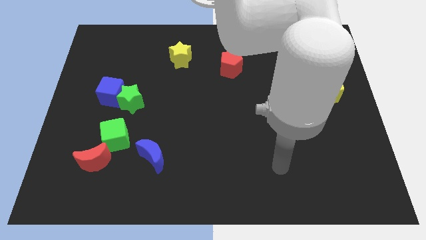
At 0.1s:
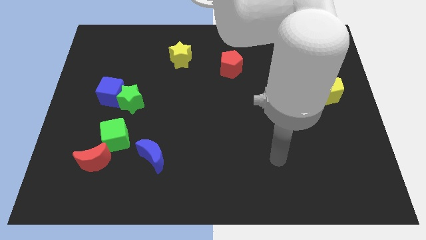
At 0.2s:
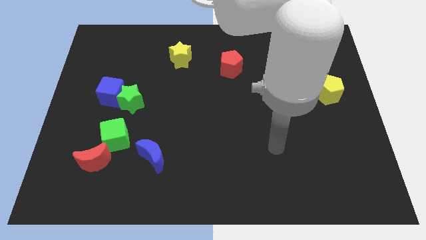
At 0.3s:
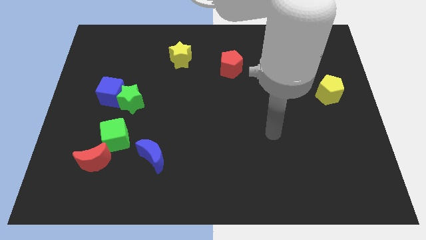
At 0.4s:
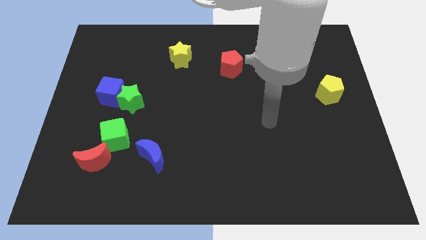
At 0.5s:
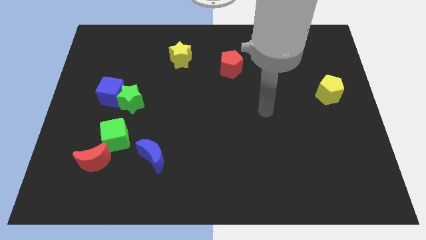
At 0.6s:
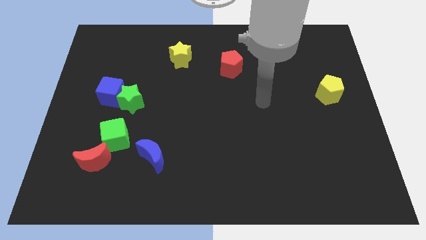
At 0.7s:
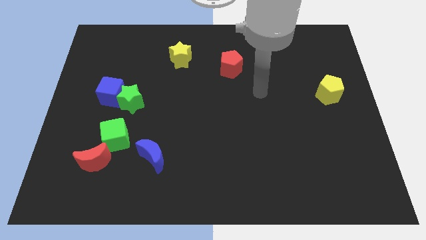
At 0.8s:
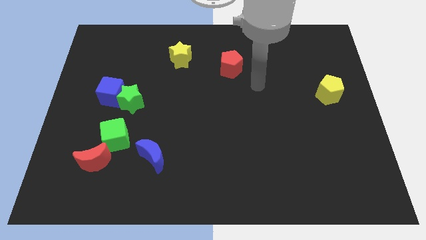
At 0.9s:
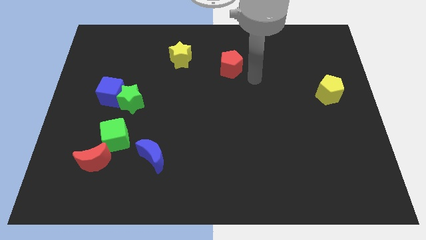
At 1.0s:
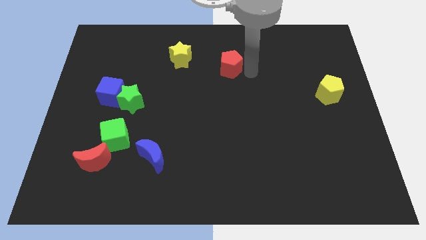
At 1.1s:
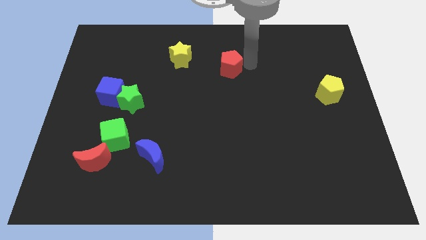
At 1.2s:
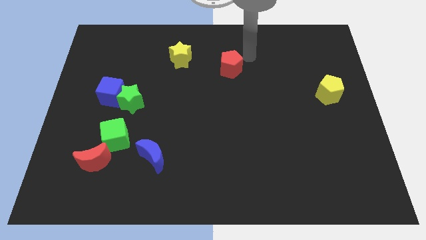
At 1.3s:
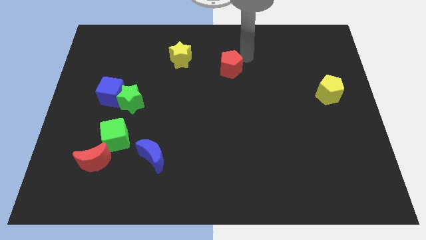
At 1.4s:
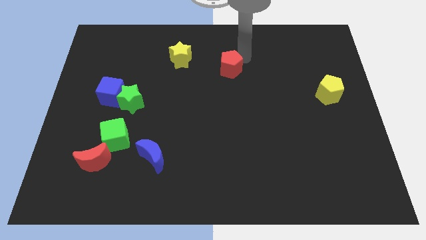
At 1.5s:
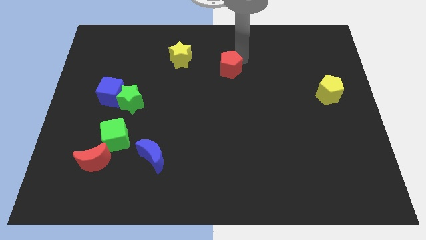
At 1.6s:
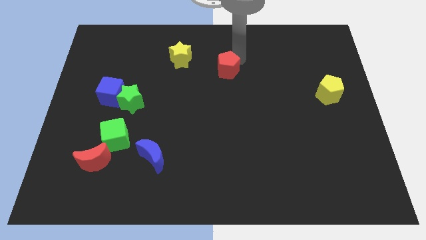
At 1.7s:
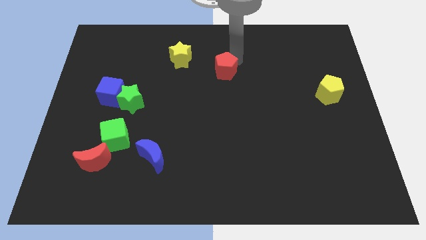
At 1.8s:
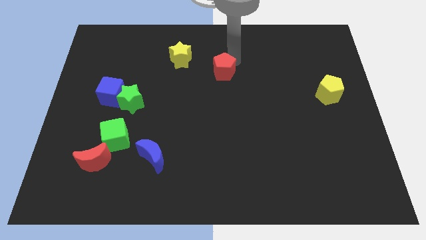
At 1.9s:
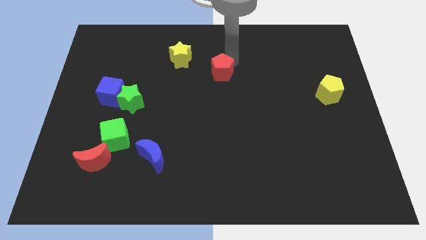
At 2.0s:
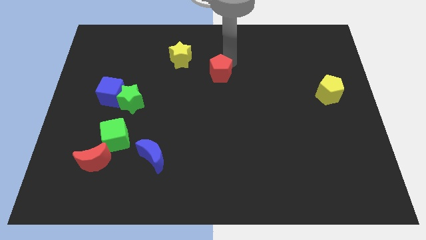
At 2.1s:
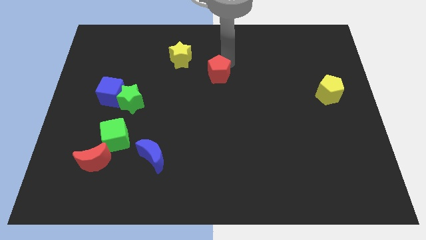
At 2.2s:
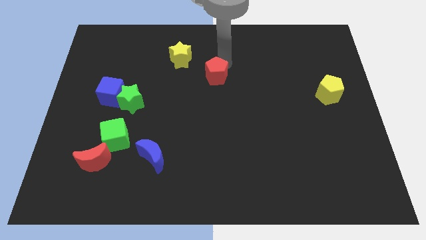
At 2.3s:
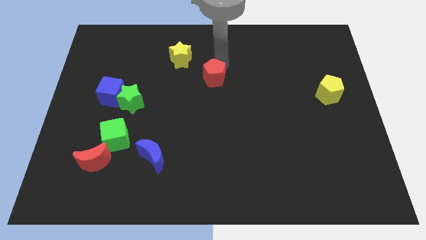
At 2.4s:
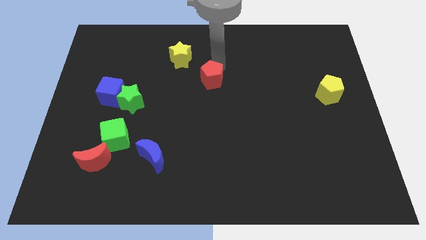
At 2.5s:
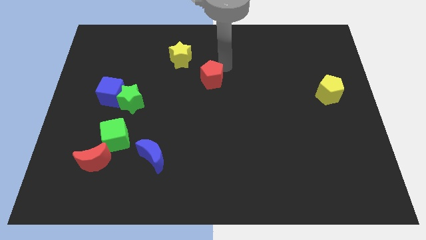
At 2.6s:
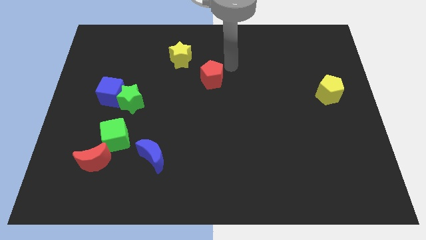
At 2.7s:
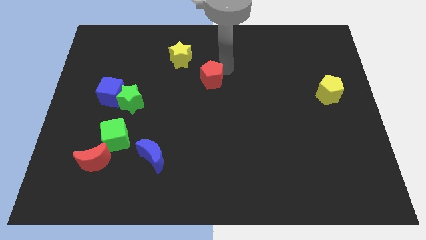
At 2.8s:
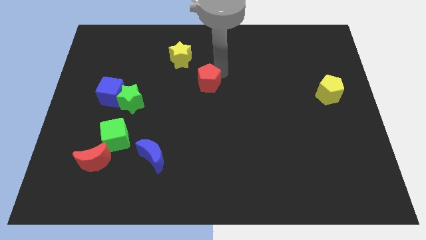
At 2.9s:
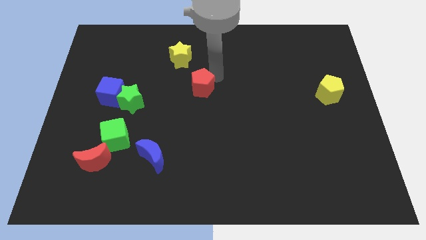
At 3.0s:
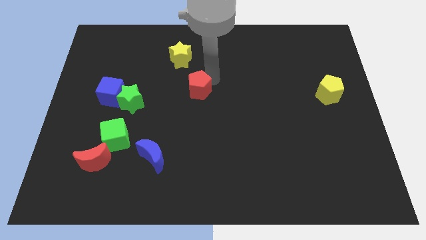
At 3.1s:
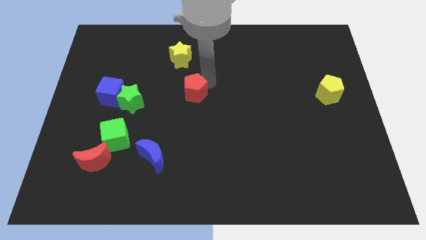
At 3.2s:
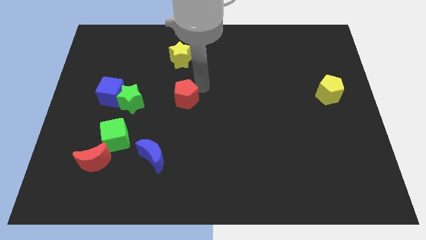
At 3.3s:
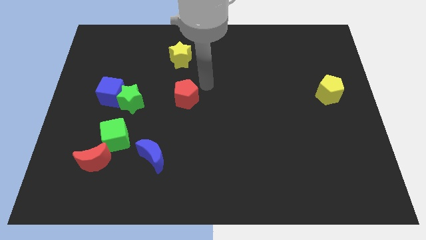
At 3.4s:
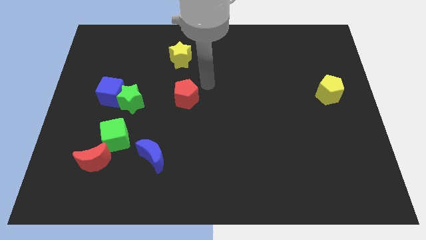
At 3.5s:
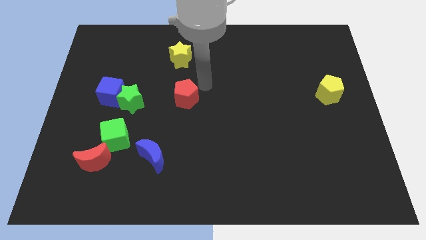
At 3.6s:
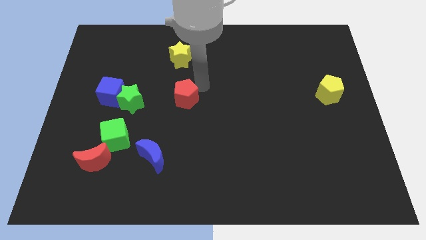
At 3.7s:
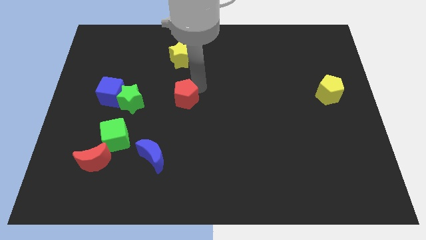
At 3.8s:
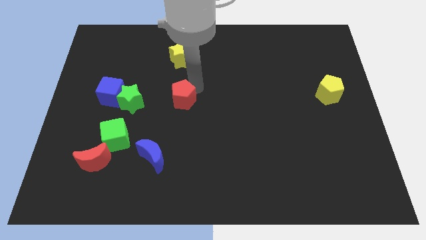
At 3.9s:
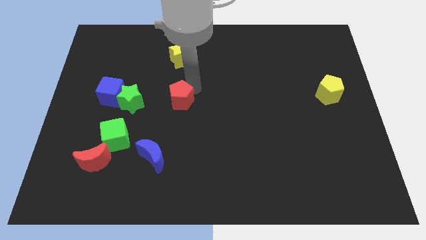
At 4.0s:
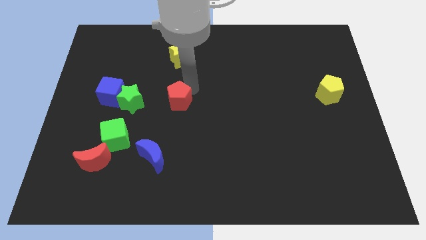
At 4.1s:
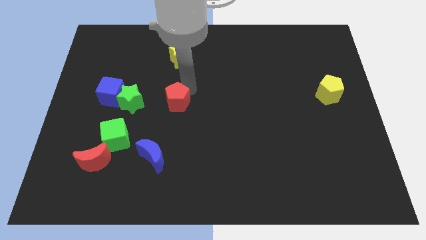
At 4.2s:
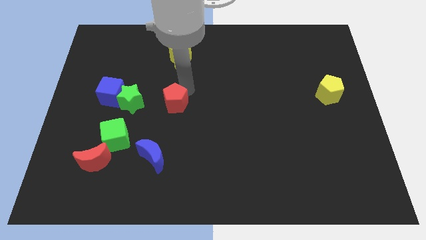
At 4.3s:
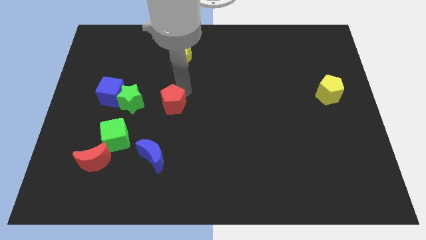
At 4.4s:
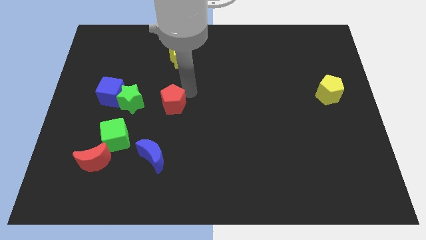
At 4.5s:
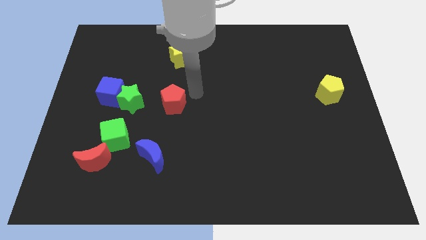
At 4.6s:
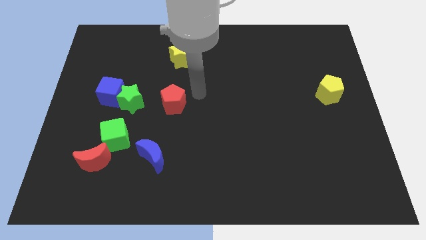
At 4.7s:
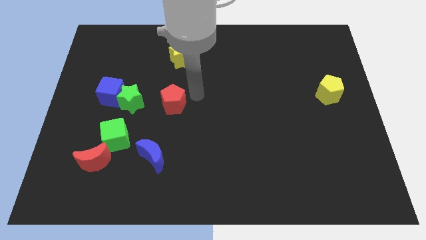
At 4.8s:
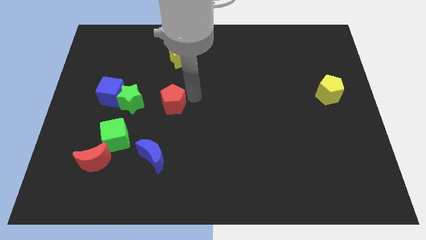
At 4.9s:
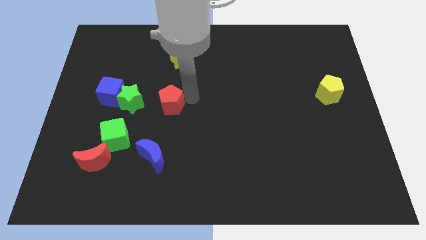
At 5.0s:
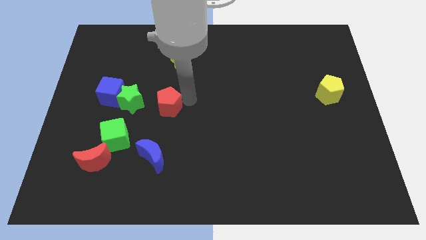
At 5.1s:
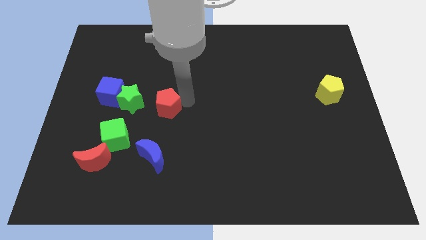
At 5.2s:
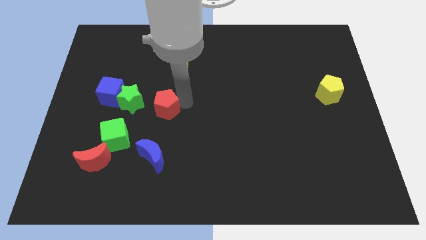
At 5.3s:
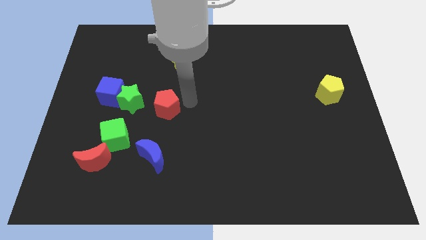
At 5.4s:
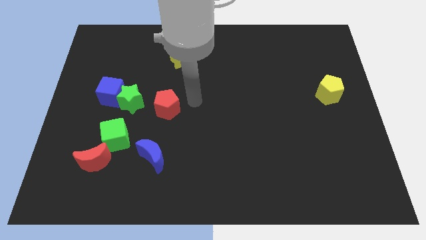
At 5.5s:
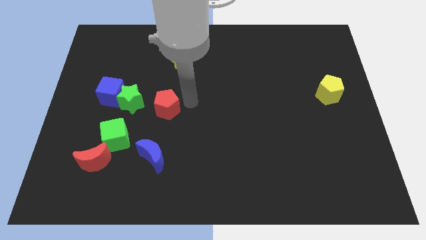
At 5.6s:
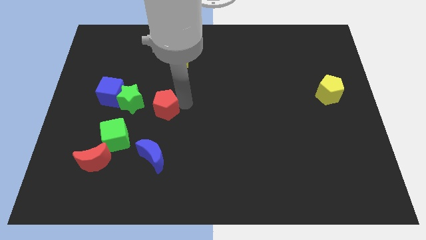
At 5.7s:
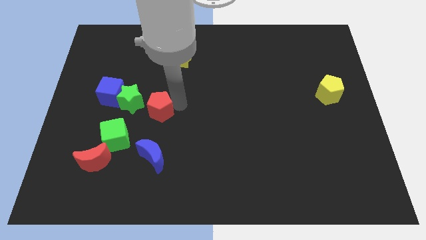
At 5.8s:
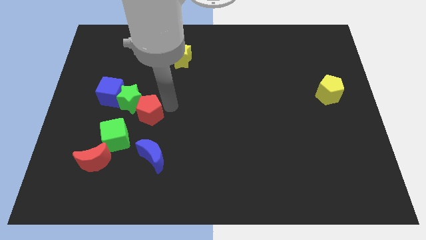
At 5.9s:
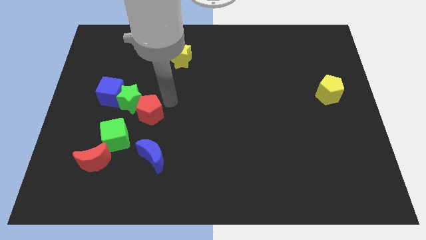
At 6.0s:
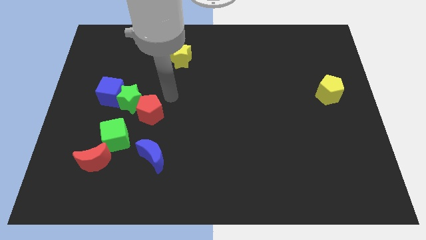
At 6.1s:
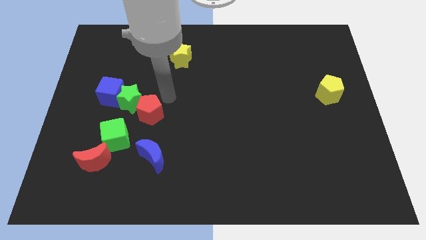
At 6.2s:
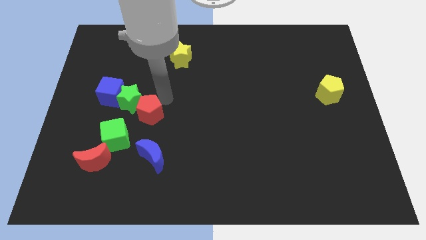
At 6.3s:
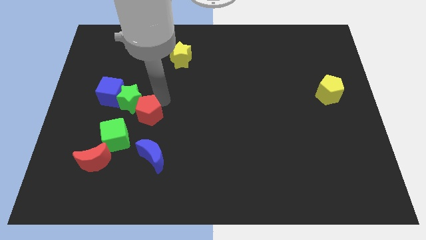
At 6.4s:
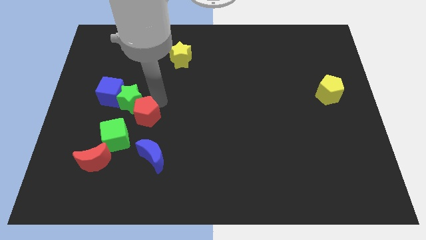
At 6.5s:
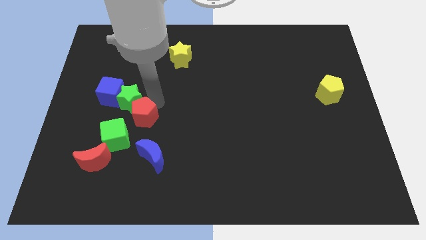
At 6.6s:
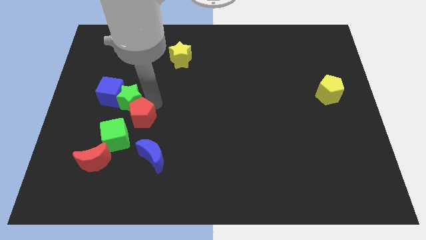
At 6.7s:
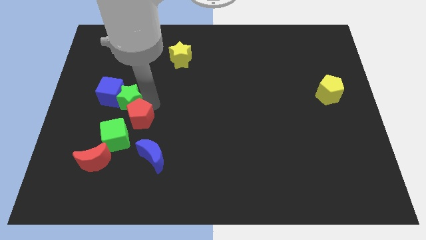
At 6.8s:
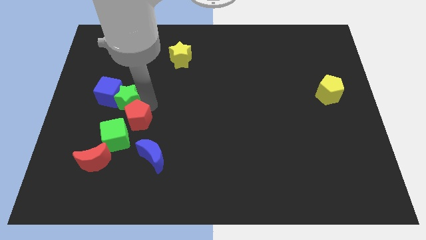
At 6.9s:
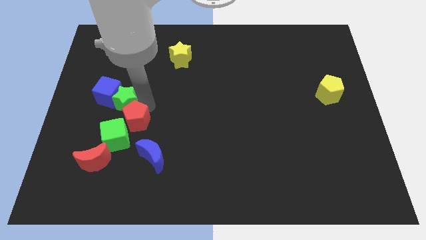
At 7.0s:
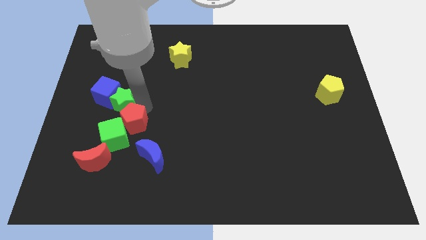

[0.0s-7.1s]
slide the red pentagon to the green cube
